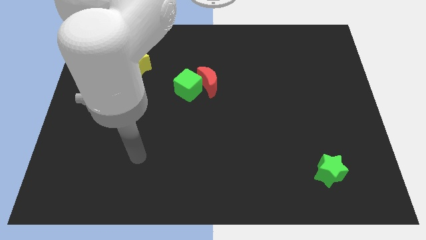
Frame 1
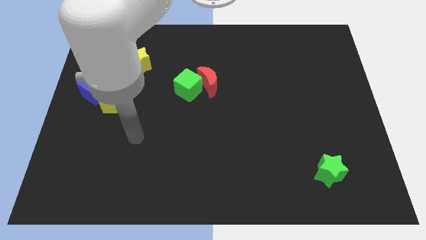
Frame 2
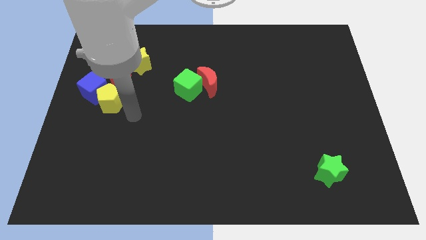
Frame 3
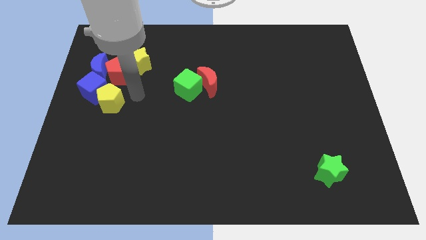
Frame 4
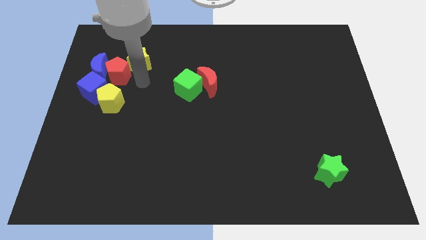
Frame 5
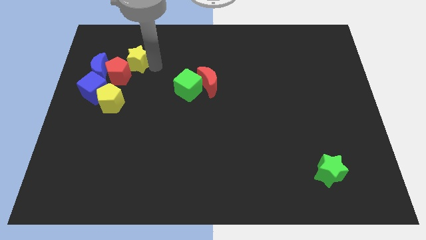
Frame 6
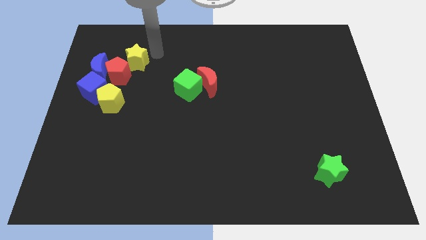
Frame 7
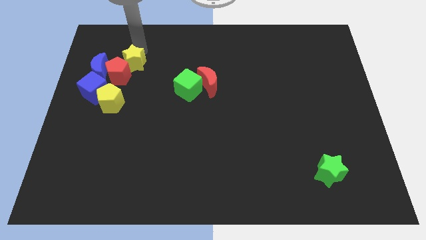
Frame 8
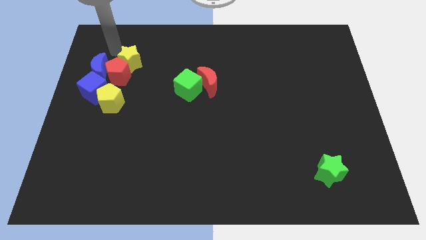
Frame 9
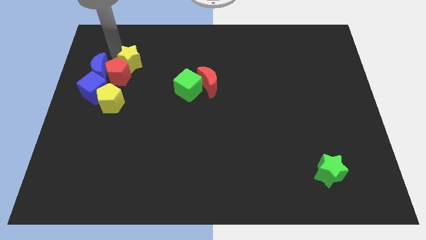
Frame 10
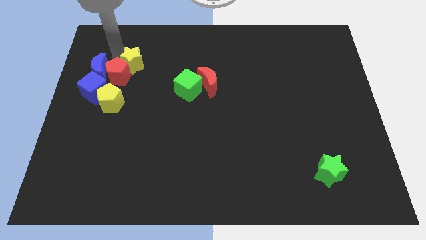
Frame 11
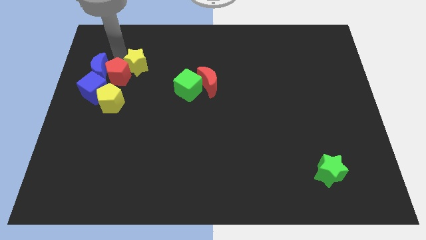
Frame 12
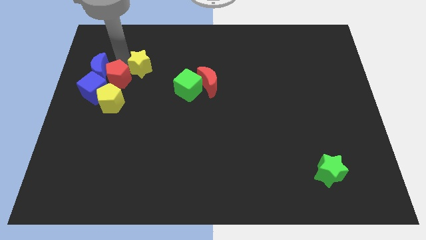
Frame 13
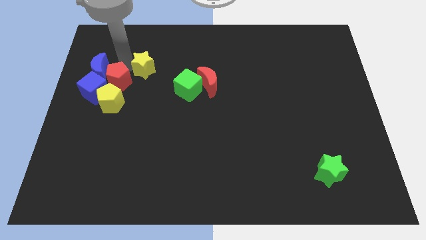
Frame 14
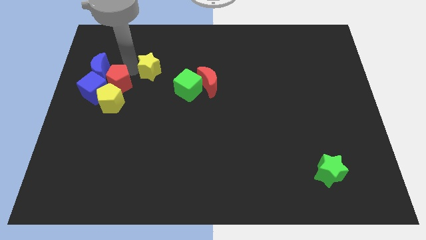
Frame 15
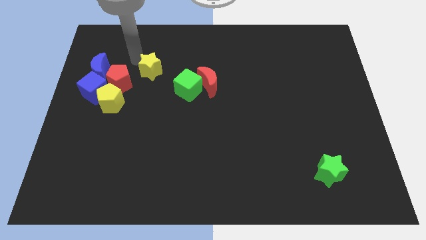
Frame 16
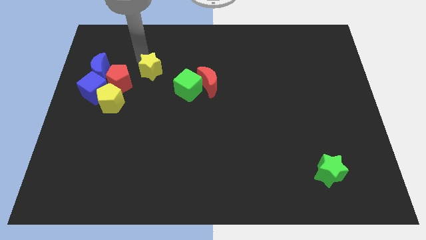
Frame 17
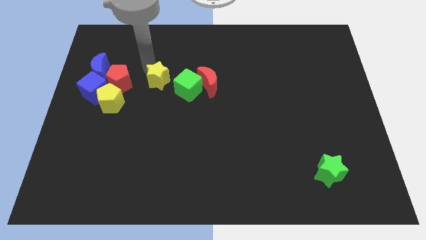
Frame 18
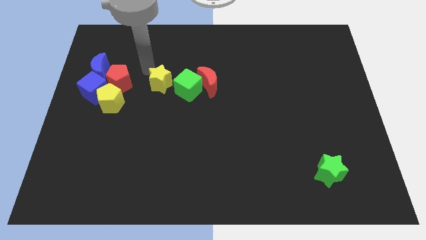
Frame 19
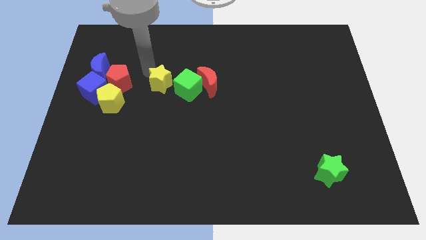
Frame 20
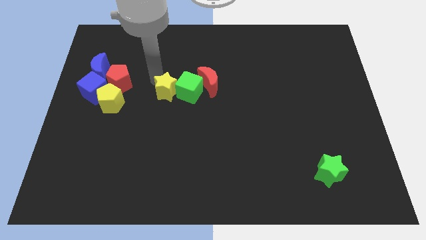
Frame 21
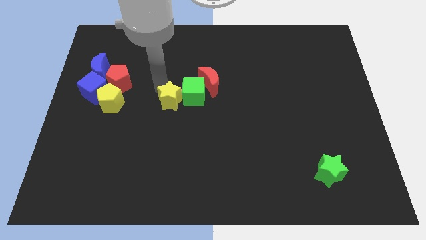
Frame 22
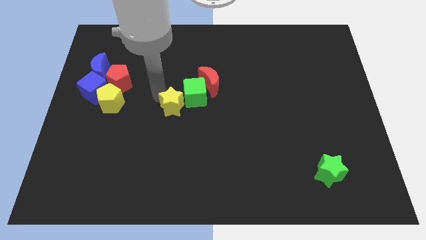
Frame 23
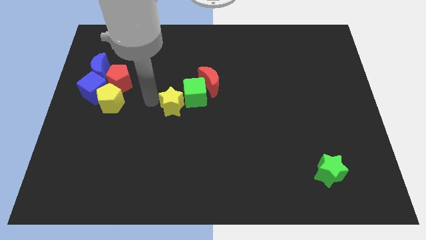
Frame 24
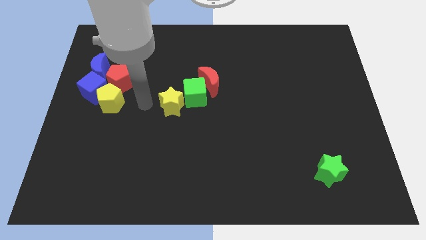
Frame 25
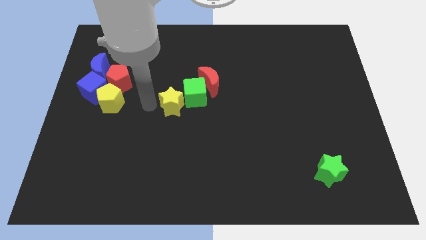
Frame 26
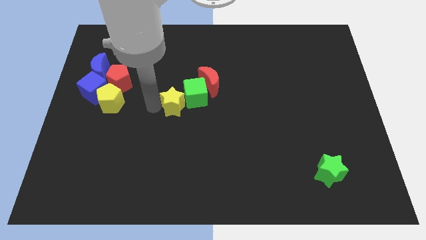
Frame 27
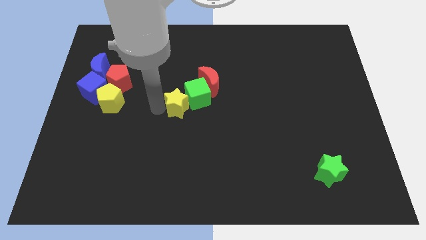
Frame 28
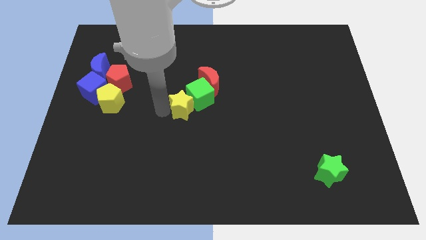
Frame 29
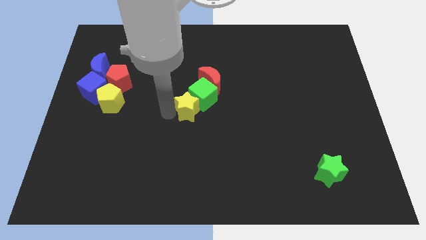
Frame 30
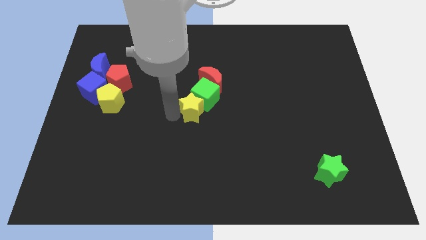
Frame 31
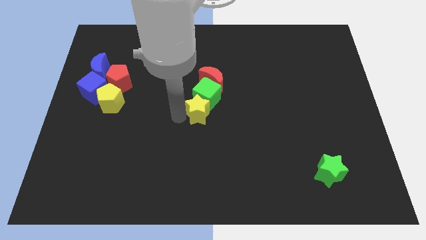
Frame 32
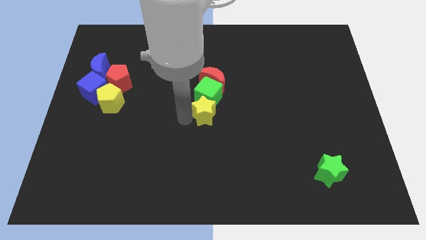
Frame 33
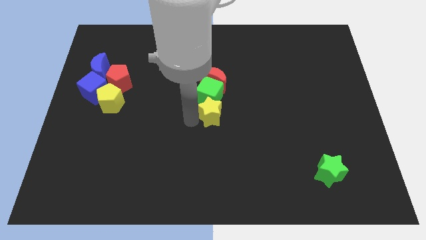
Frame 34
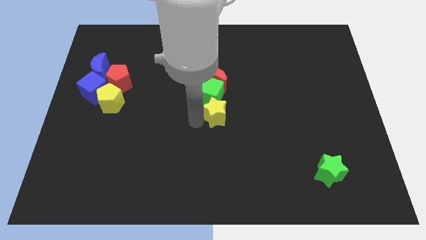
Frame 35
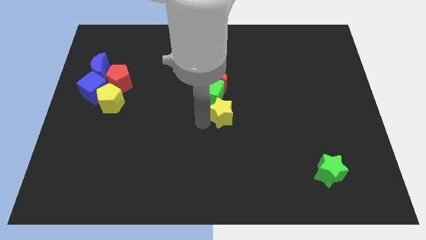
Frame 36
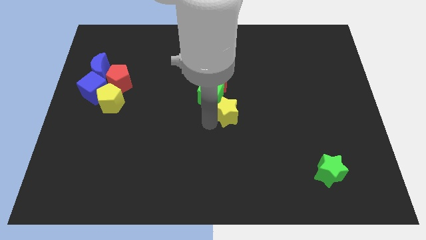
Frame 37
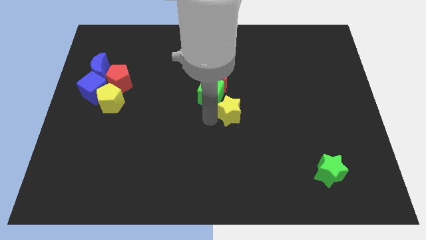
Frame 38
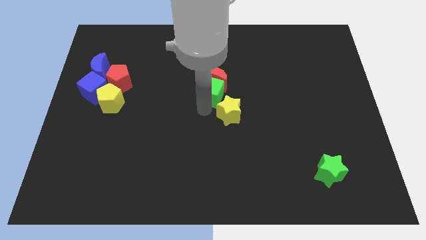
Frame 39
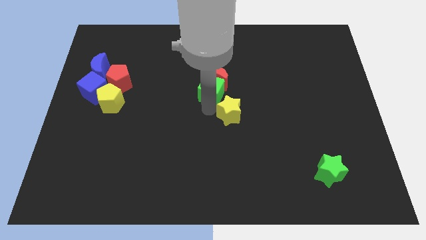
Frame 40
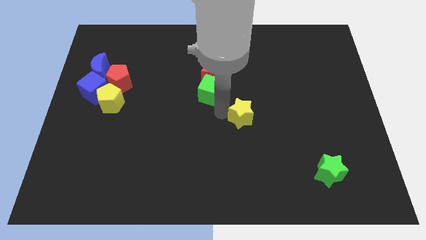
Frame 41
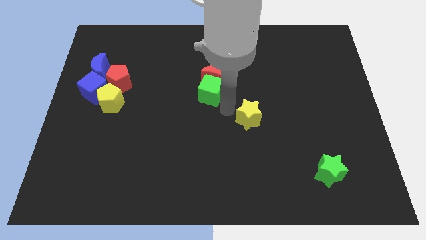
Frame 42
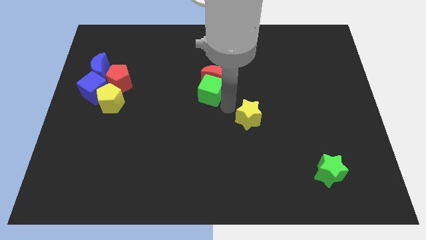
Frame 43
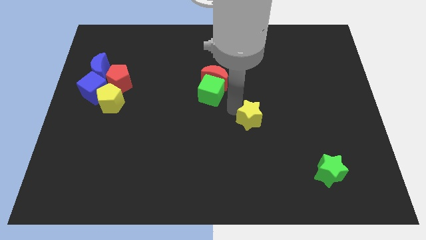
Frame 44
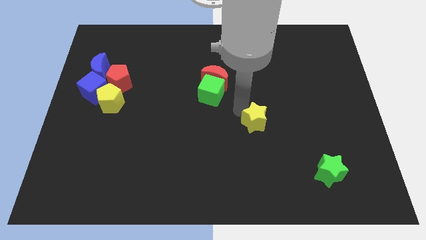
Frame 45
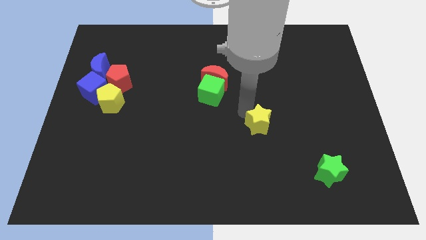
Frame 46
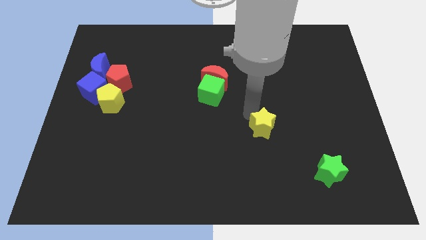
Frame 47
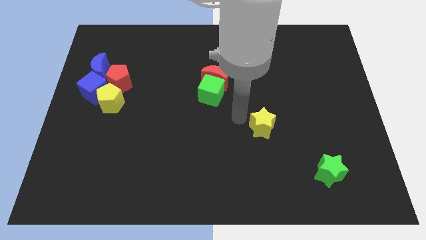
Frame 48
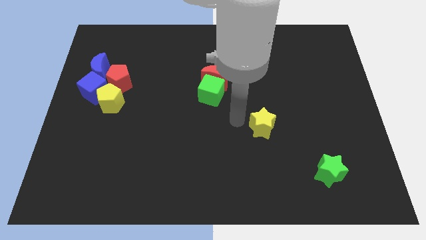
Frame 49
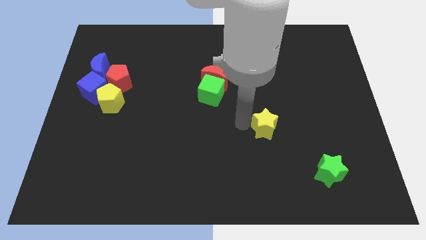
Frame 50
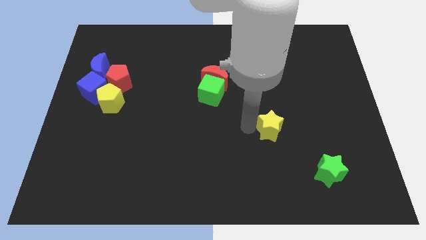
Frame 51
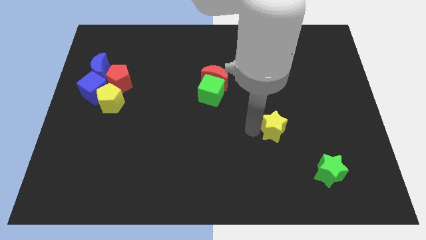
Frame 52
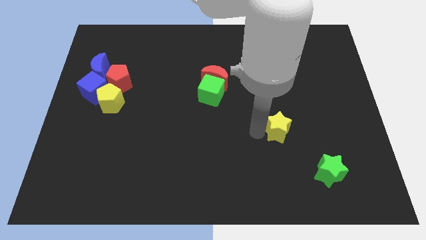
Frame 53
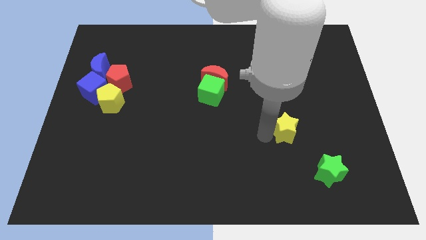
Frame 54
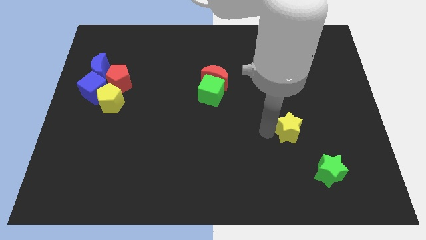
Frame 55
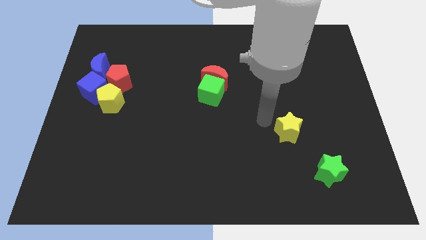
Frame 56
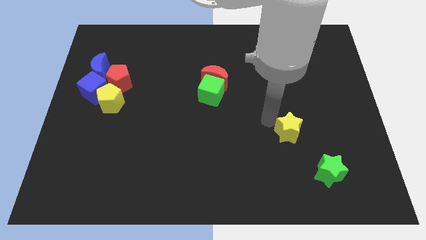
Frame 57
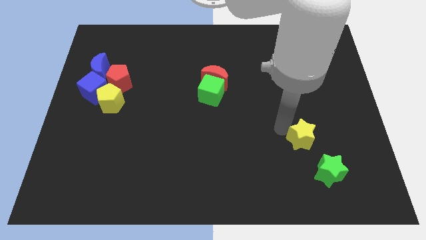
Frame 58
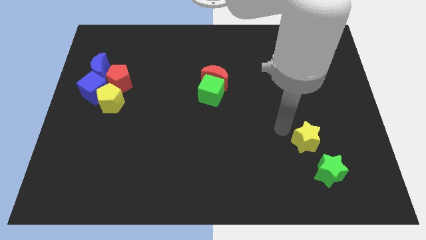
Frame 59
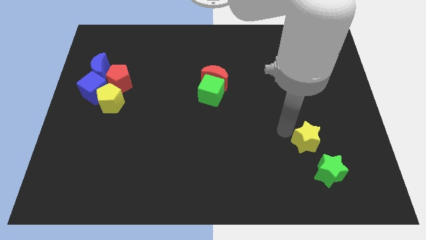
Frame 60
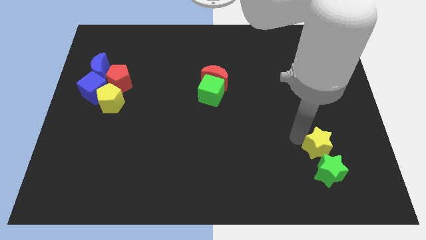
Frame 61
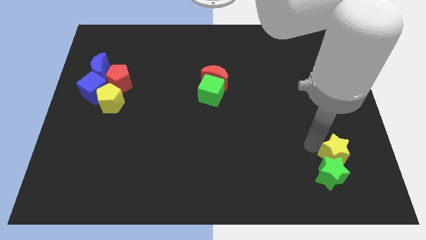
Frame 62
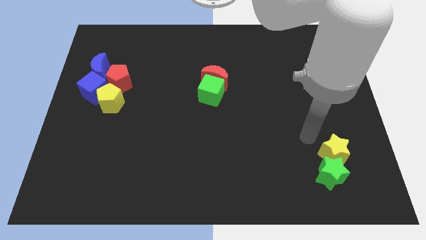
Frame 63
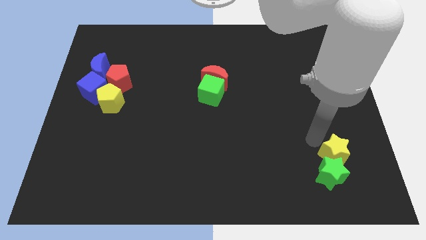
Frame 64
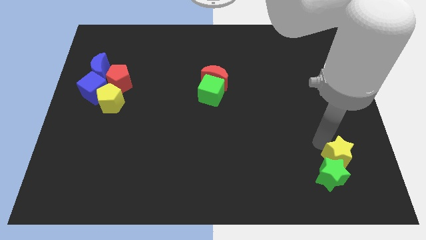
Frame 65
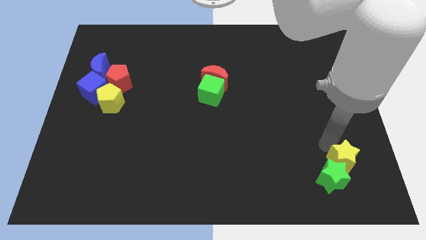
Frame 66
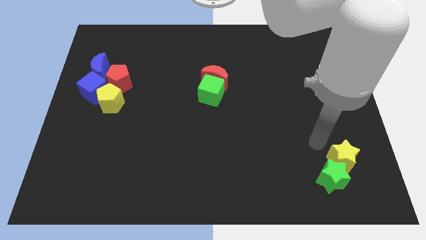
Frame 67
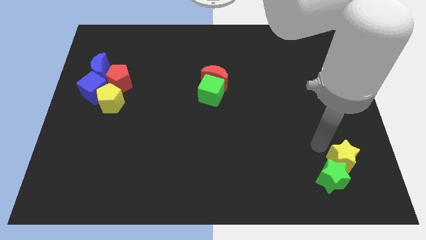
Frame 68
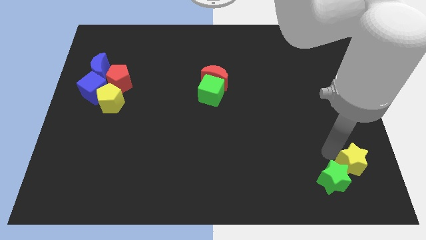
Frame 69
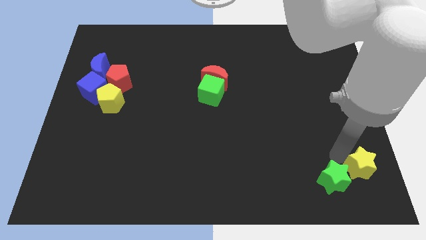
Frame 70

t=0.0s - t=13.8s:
push the yellow star to the bottom right
